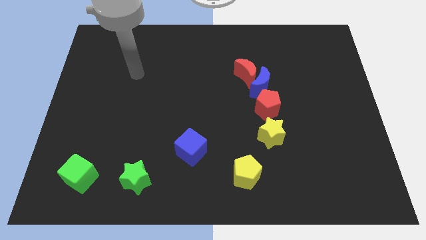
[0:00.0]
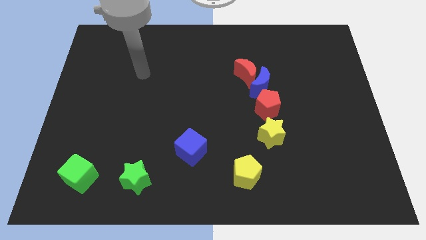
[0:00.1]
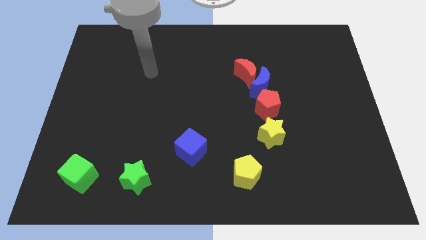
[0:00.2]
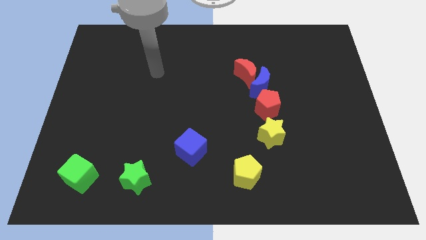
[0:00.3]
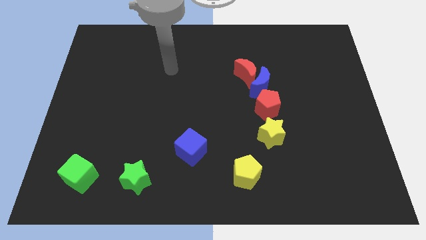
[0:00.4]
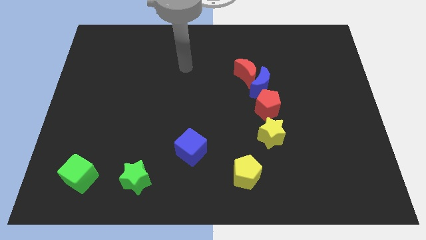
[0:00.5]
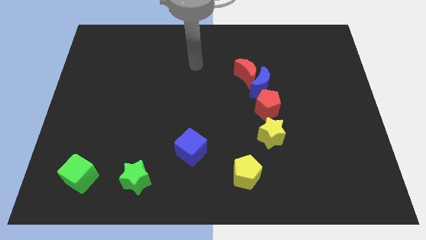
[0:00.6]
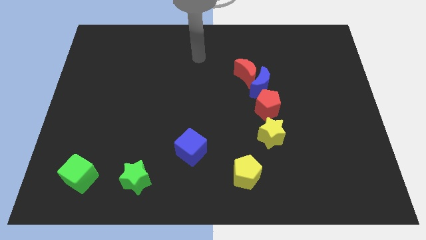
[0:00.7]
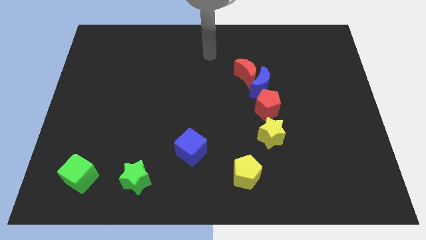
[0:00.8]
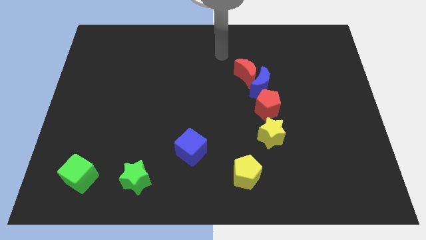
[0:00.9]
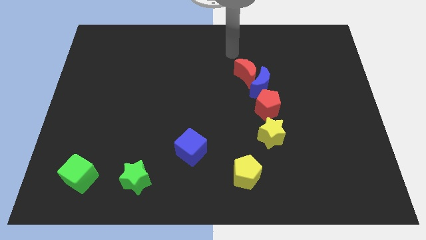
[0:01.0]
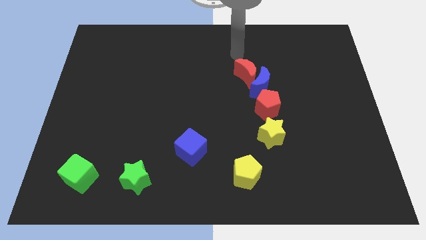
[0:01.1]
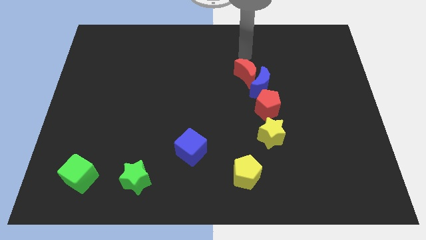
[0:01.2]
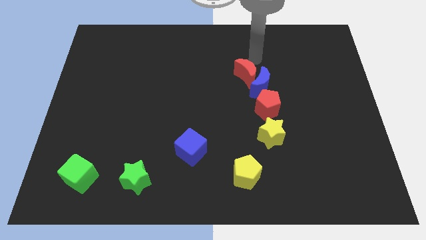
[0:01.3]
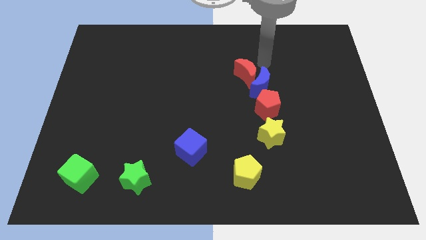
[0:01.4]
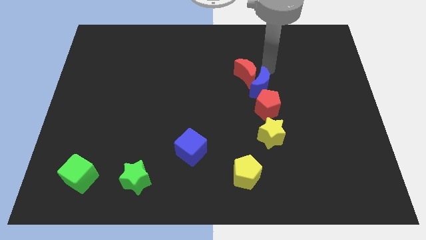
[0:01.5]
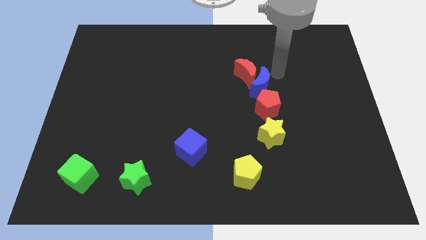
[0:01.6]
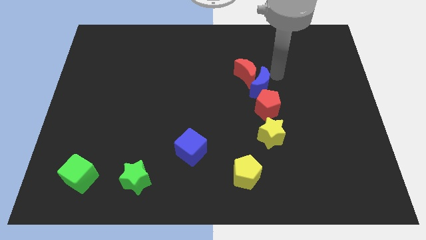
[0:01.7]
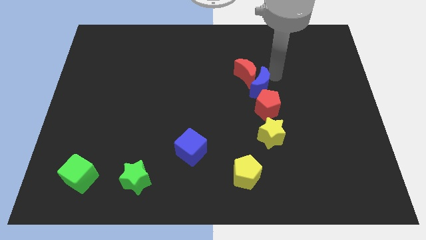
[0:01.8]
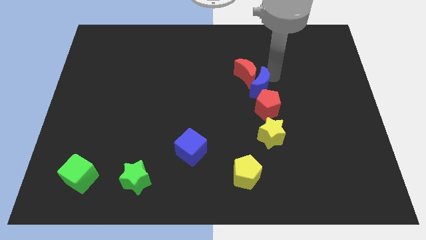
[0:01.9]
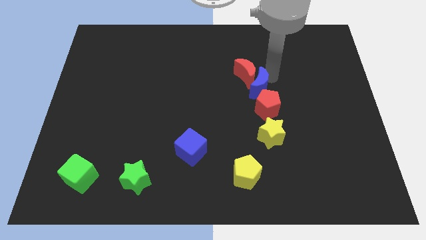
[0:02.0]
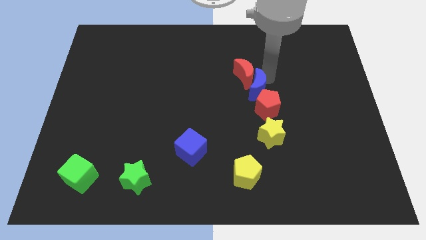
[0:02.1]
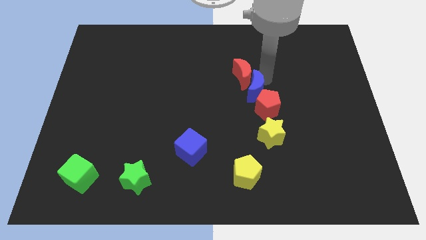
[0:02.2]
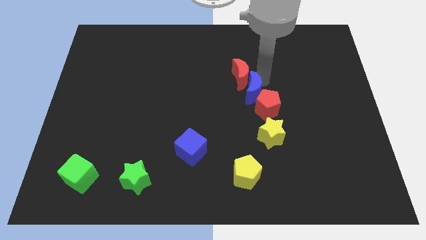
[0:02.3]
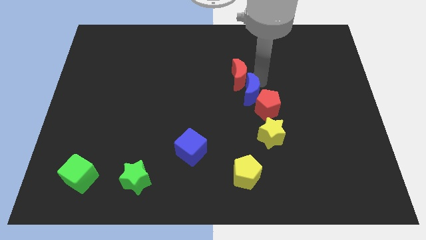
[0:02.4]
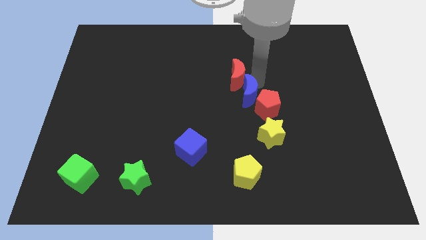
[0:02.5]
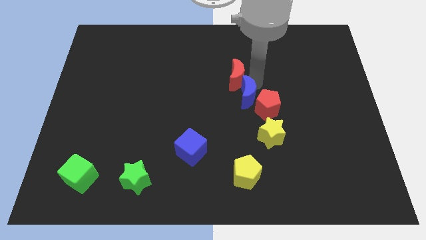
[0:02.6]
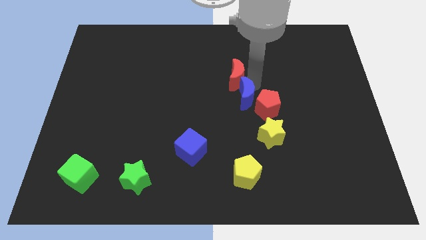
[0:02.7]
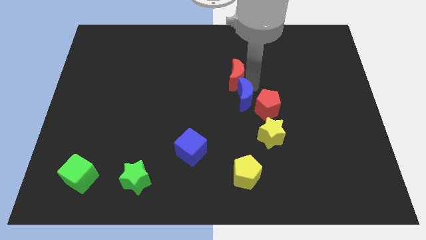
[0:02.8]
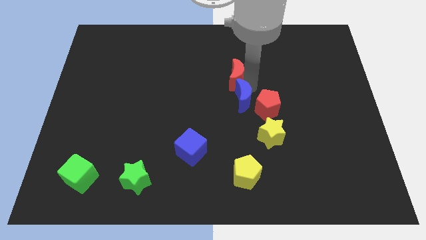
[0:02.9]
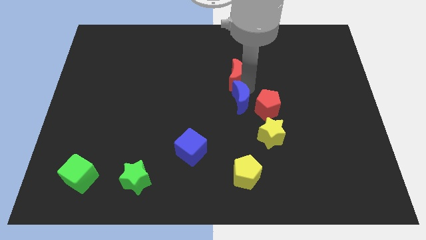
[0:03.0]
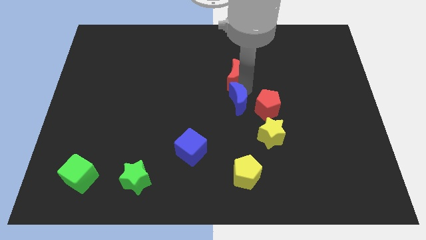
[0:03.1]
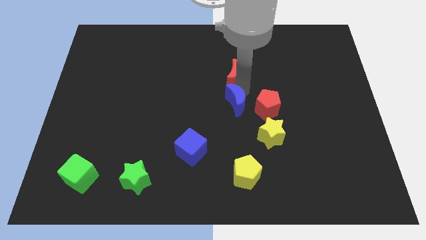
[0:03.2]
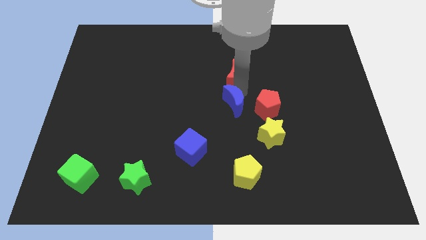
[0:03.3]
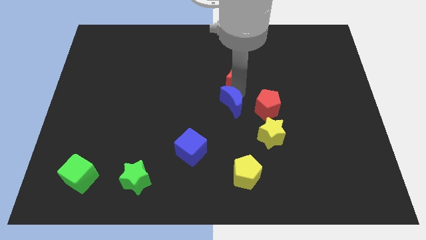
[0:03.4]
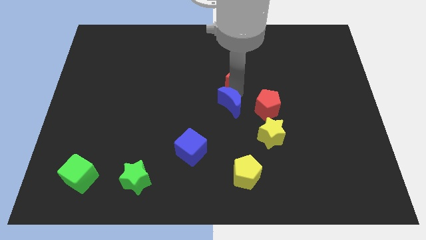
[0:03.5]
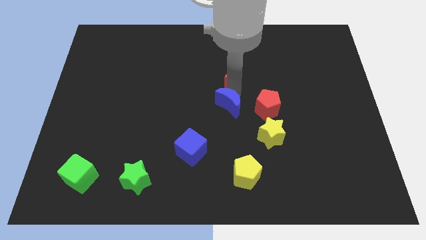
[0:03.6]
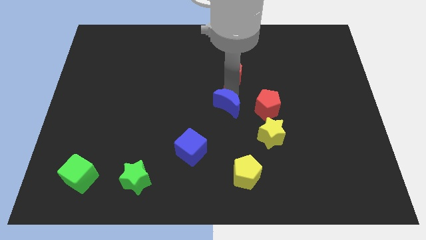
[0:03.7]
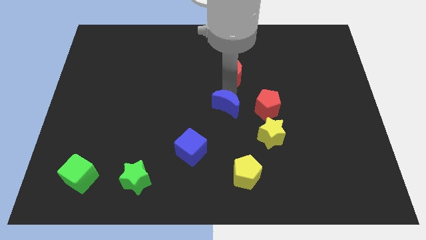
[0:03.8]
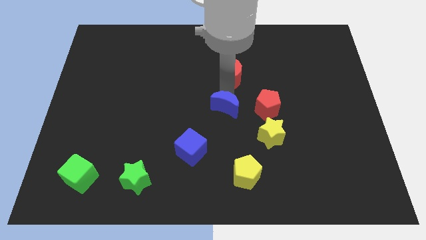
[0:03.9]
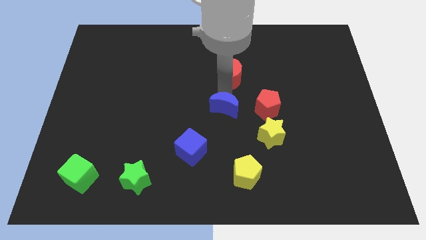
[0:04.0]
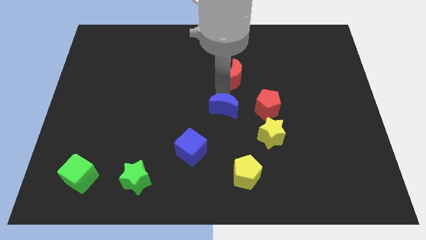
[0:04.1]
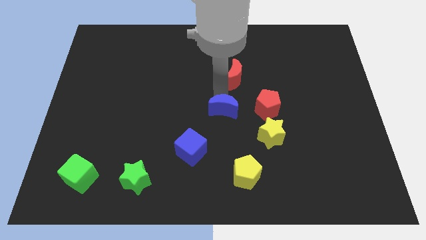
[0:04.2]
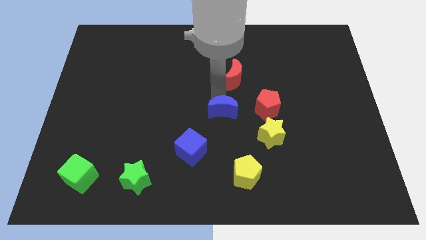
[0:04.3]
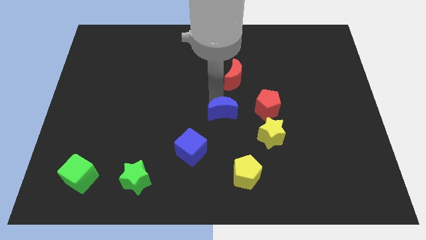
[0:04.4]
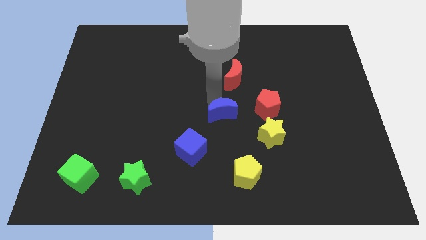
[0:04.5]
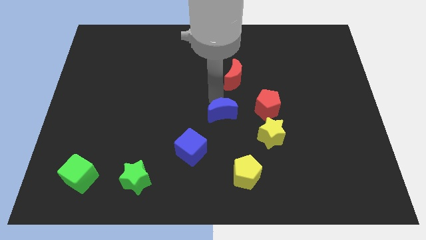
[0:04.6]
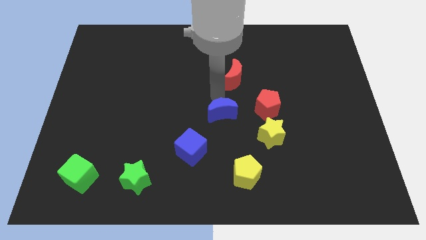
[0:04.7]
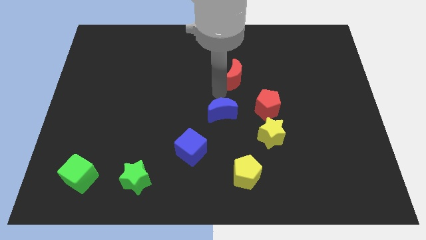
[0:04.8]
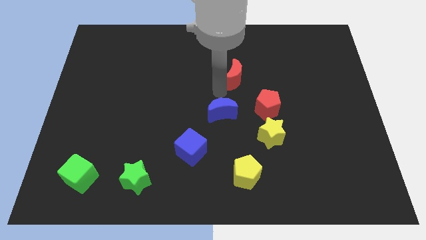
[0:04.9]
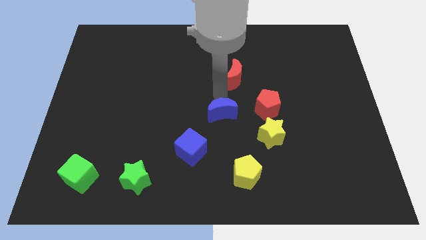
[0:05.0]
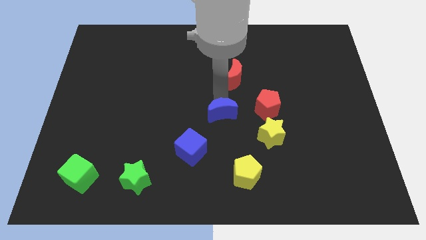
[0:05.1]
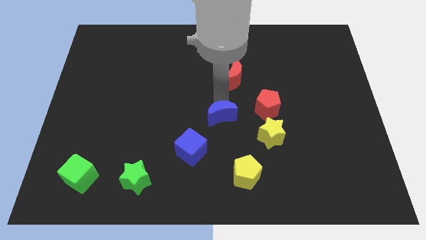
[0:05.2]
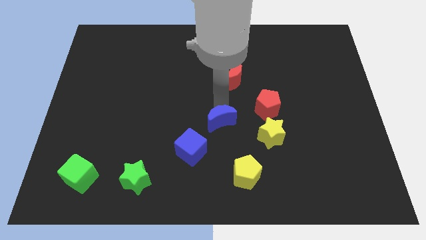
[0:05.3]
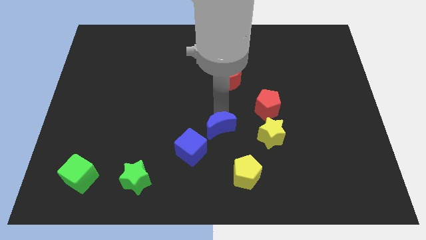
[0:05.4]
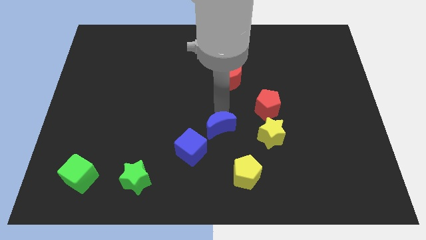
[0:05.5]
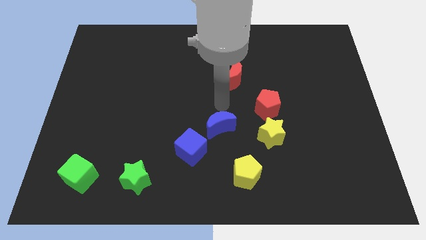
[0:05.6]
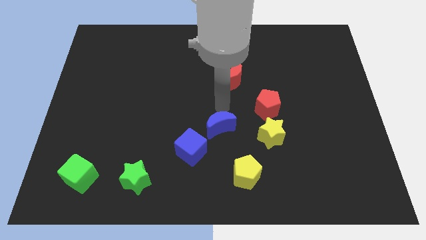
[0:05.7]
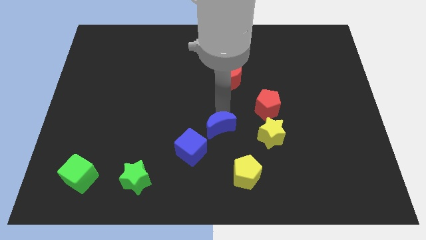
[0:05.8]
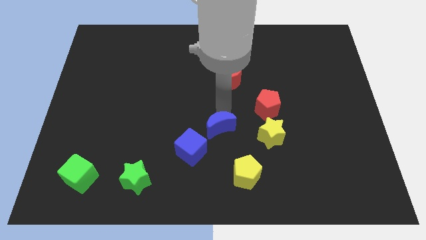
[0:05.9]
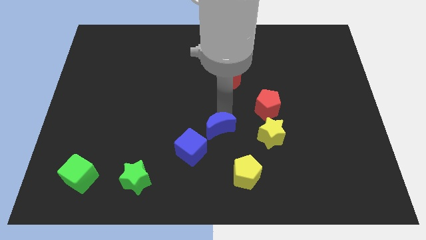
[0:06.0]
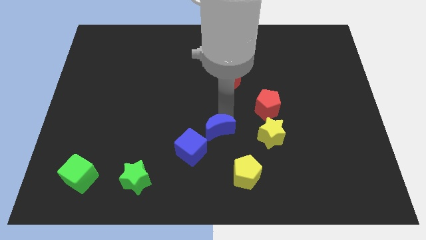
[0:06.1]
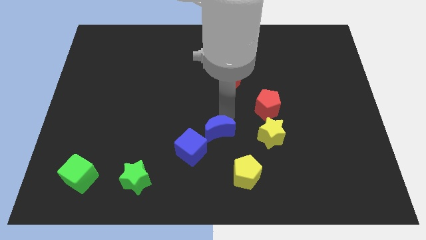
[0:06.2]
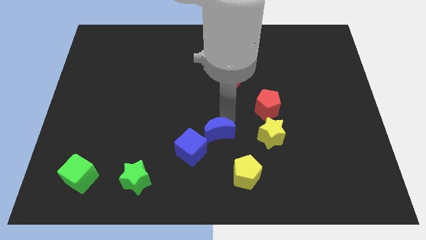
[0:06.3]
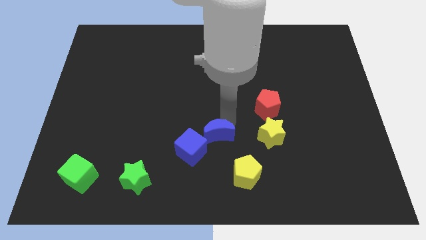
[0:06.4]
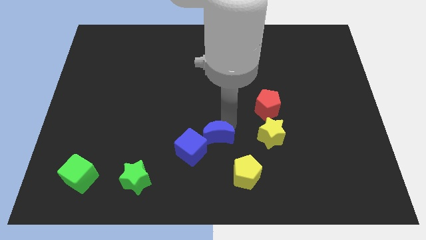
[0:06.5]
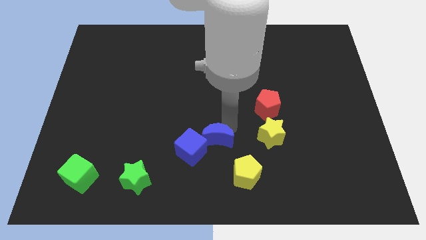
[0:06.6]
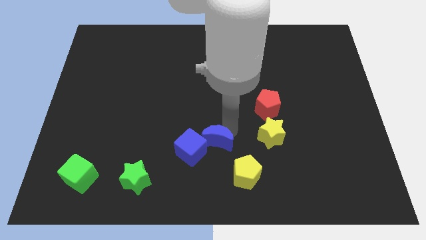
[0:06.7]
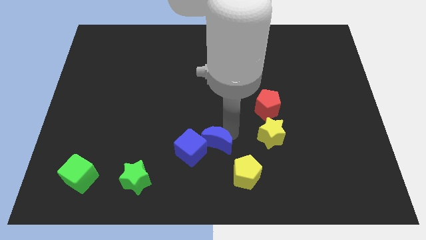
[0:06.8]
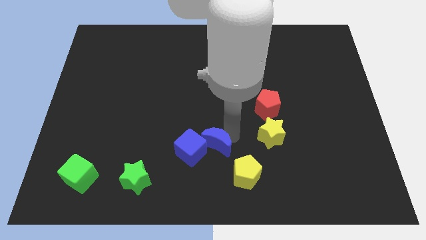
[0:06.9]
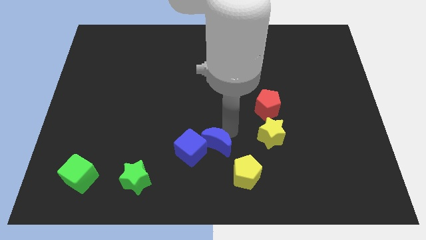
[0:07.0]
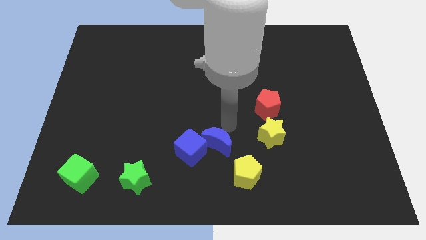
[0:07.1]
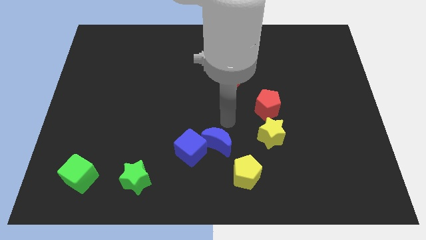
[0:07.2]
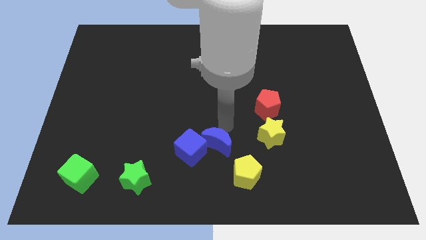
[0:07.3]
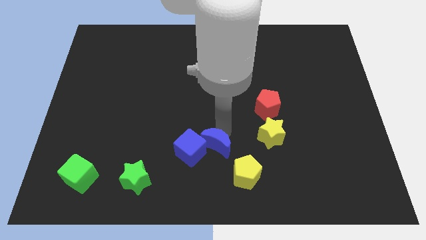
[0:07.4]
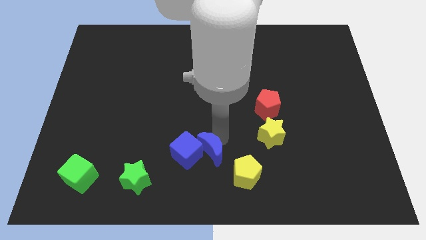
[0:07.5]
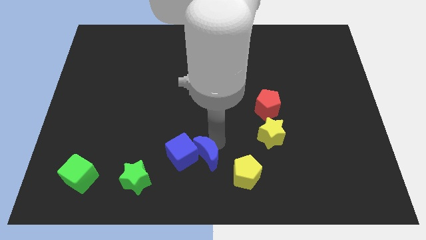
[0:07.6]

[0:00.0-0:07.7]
move the blue moon to the bottom side
